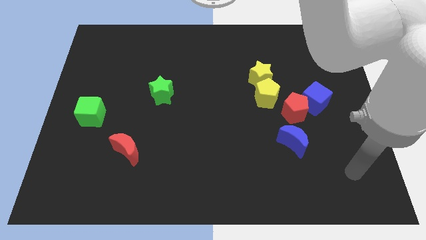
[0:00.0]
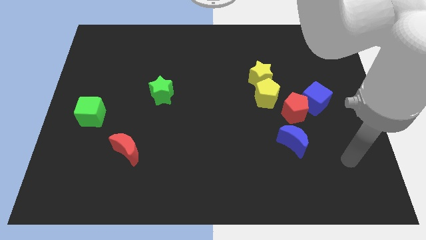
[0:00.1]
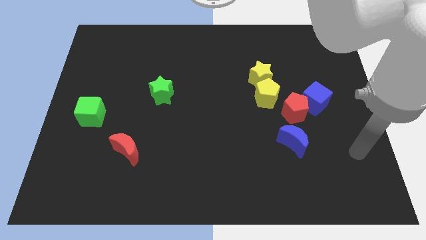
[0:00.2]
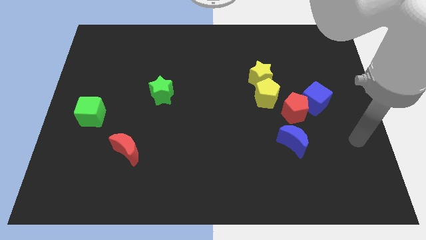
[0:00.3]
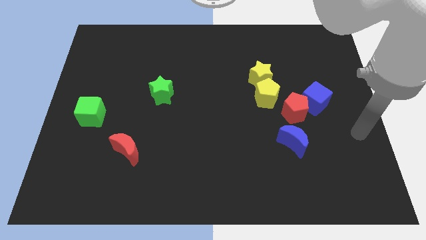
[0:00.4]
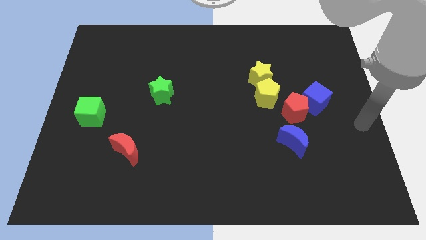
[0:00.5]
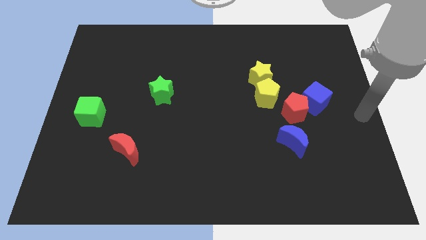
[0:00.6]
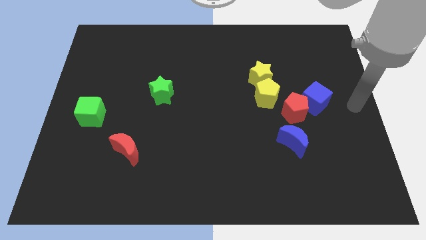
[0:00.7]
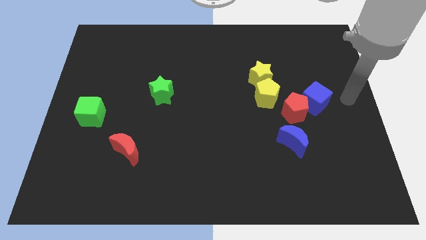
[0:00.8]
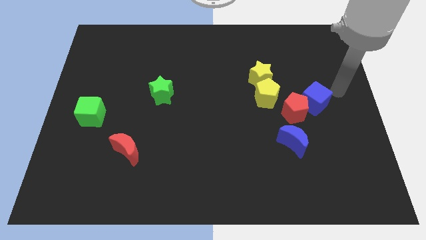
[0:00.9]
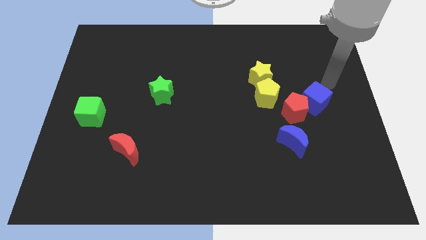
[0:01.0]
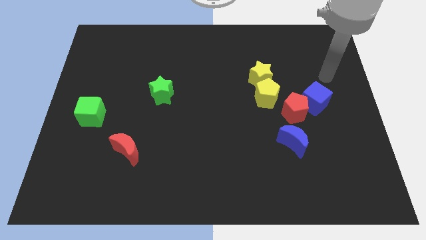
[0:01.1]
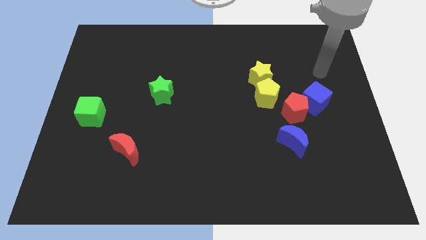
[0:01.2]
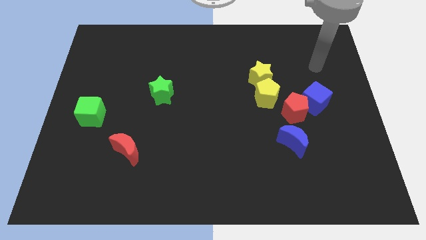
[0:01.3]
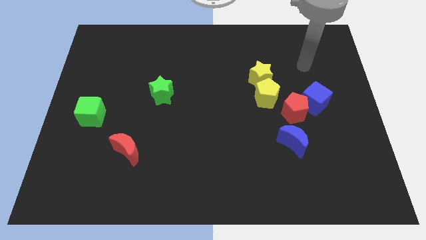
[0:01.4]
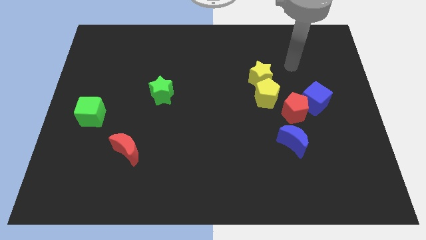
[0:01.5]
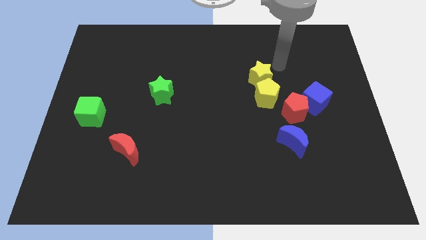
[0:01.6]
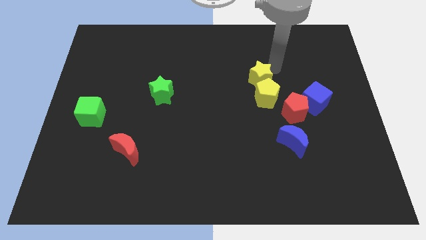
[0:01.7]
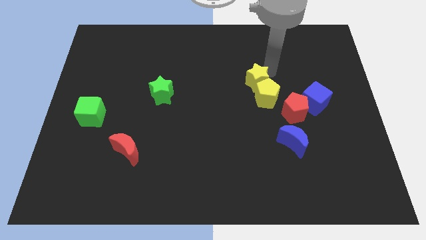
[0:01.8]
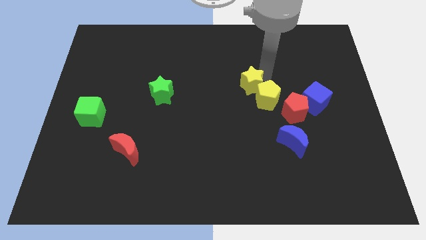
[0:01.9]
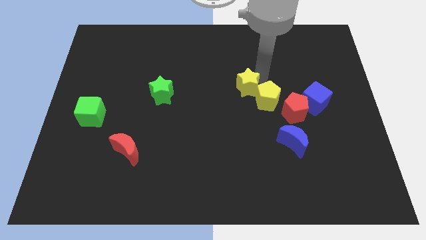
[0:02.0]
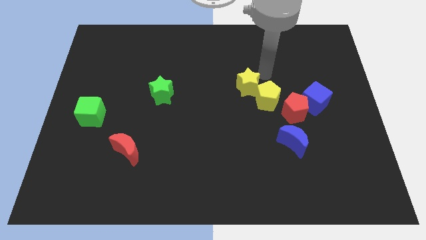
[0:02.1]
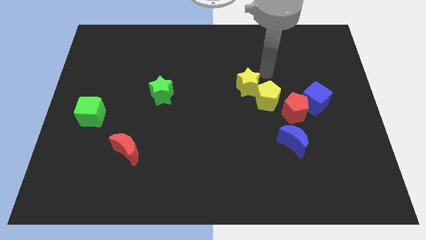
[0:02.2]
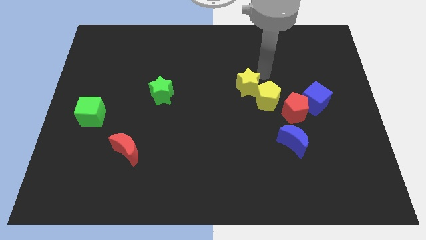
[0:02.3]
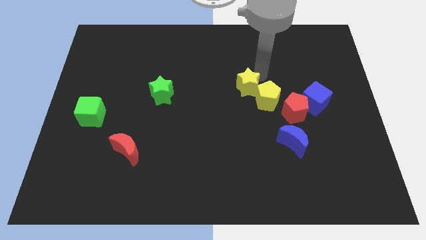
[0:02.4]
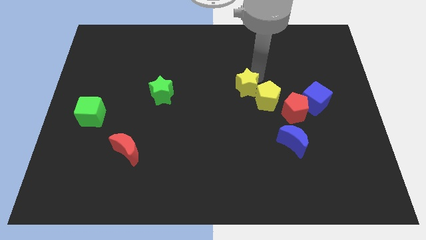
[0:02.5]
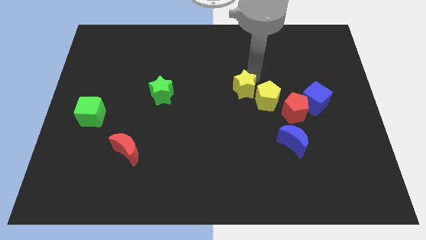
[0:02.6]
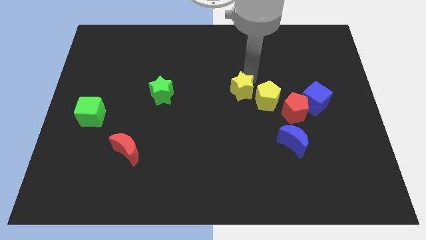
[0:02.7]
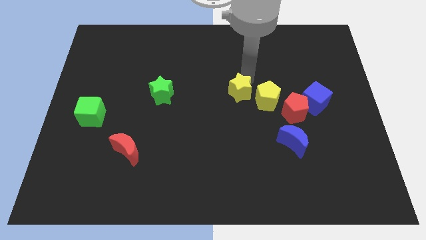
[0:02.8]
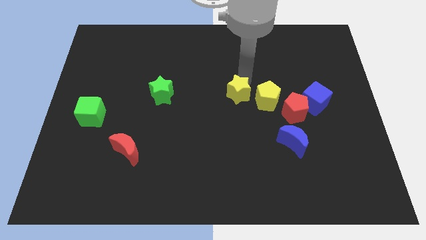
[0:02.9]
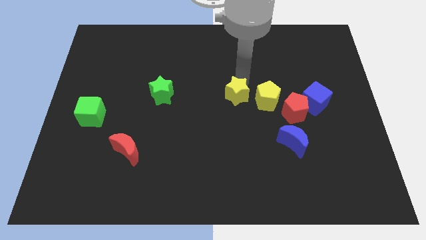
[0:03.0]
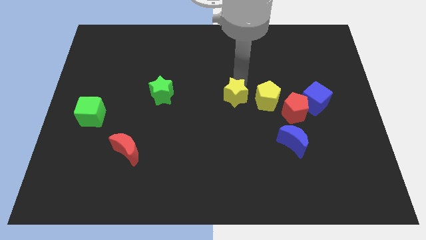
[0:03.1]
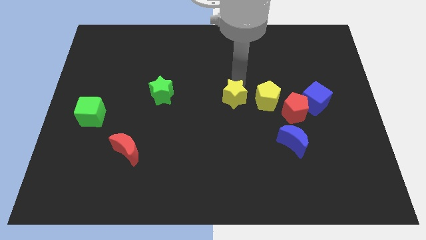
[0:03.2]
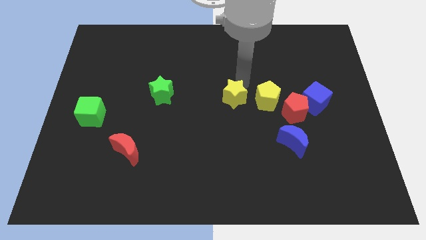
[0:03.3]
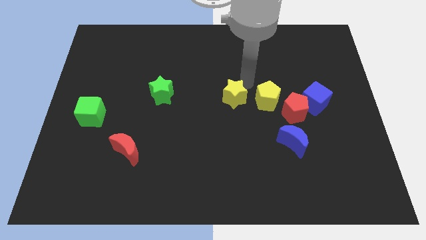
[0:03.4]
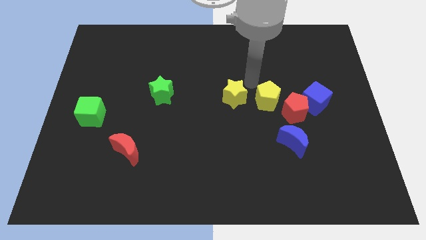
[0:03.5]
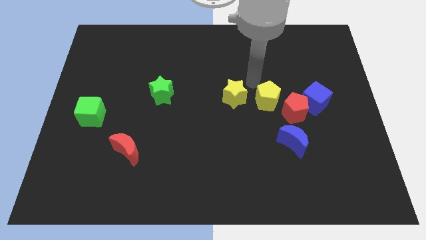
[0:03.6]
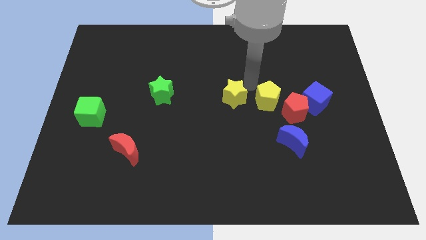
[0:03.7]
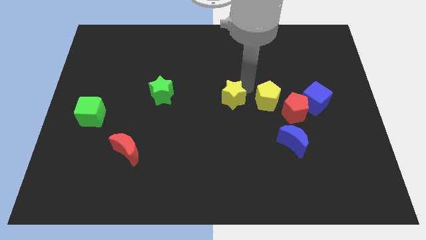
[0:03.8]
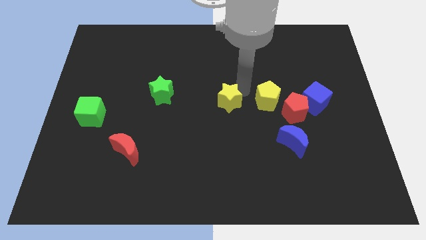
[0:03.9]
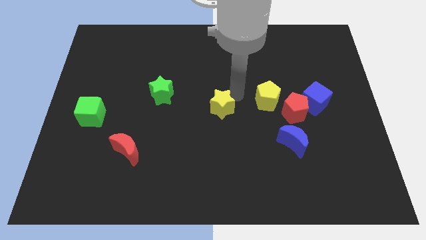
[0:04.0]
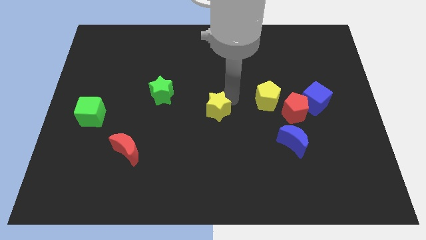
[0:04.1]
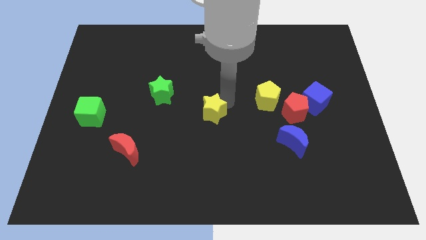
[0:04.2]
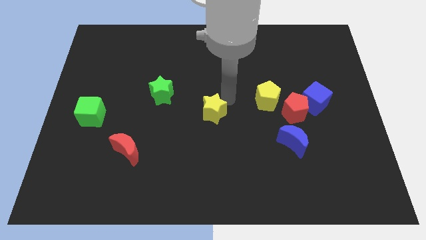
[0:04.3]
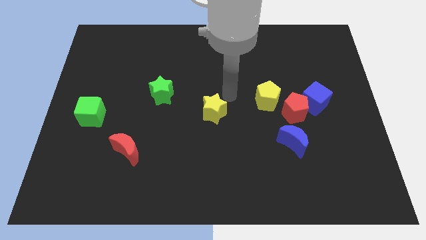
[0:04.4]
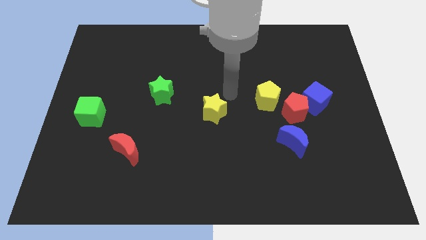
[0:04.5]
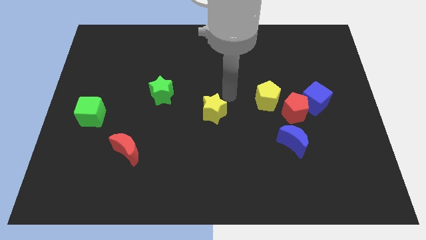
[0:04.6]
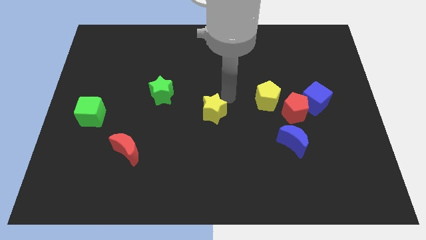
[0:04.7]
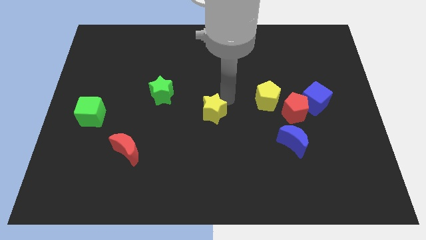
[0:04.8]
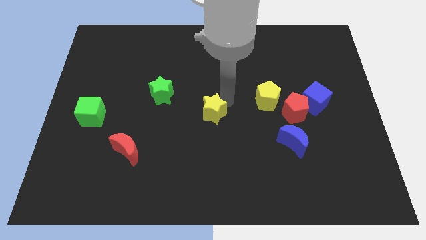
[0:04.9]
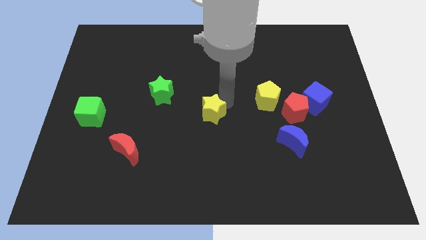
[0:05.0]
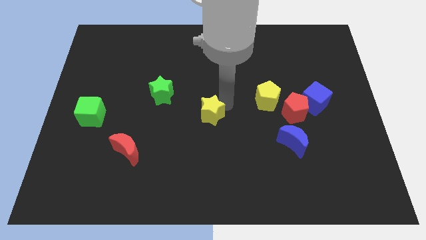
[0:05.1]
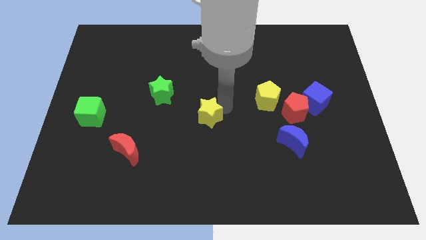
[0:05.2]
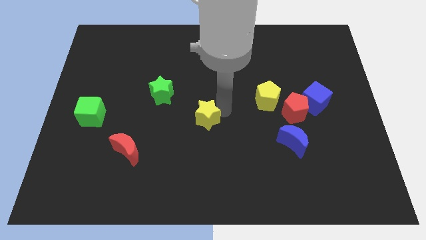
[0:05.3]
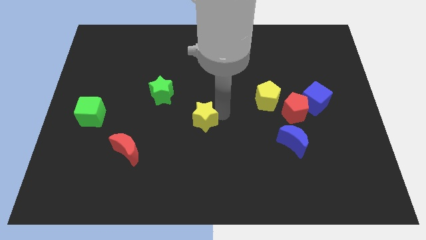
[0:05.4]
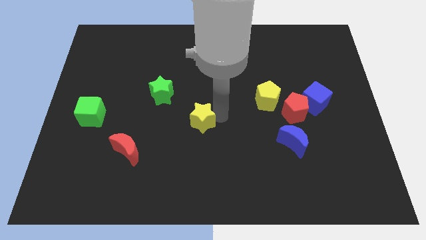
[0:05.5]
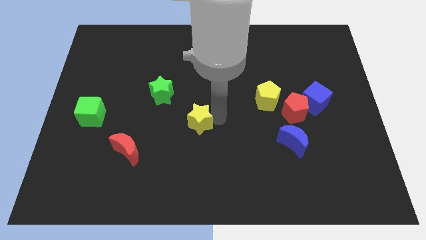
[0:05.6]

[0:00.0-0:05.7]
slide the yellow star downwards and then left

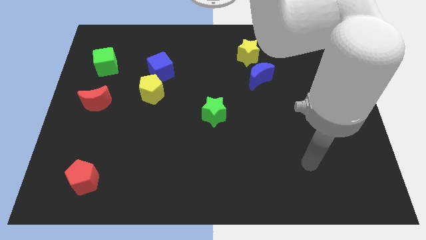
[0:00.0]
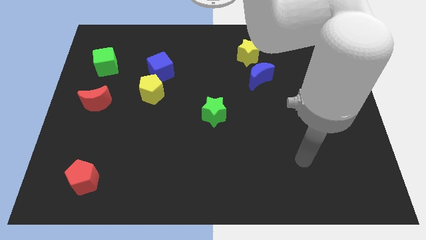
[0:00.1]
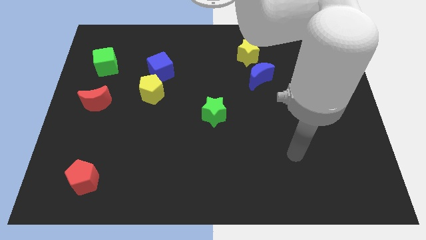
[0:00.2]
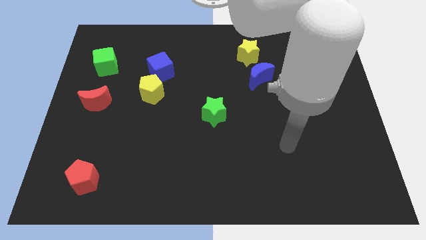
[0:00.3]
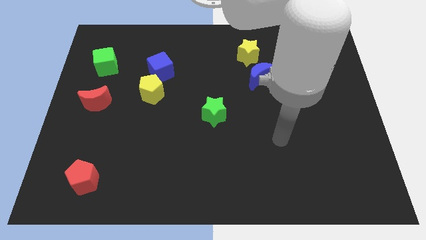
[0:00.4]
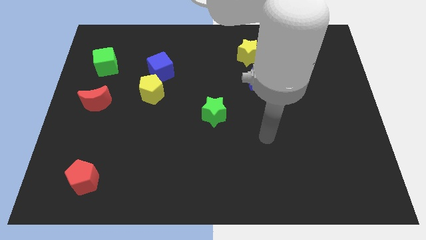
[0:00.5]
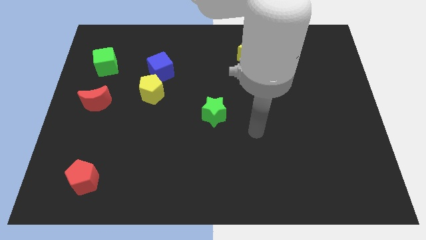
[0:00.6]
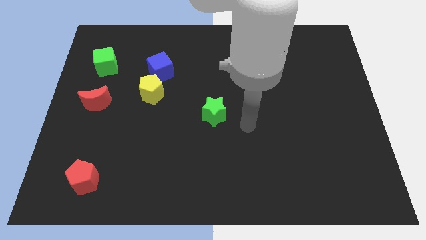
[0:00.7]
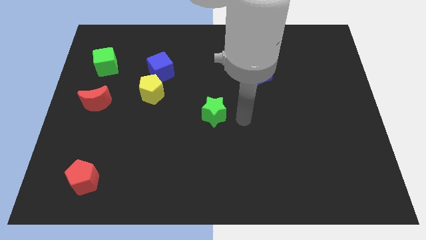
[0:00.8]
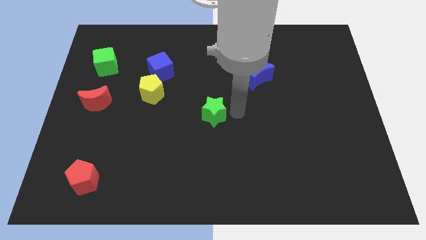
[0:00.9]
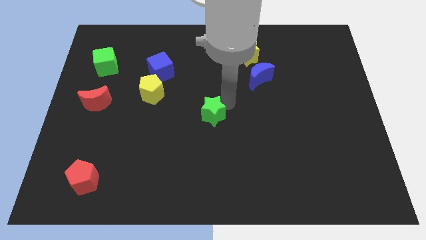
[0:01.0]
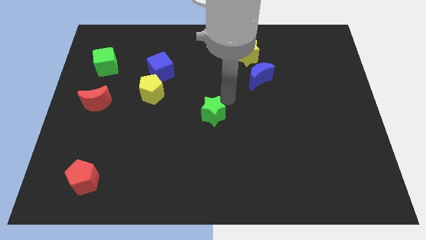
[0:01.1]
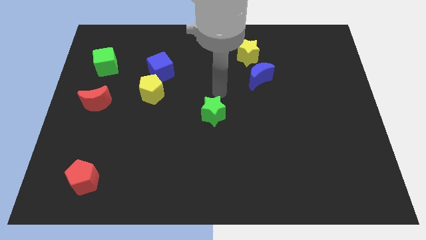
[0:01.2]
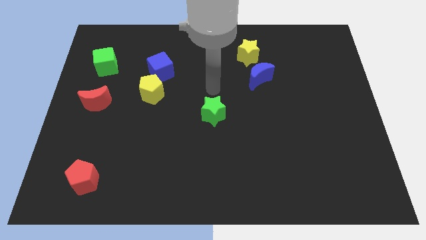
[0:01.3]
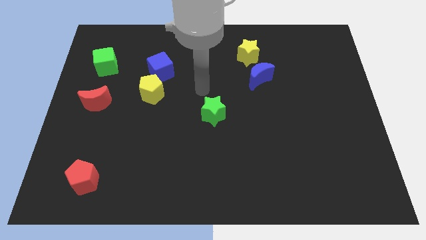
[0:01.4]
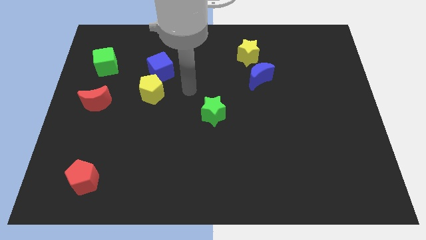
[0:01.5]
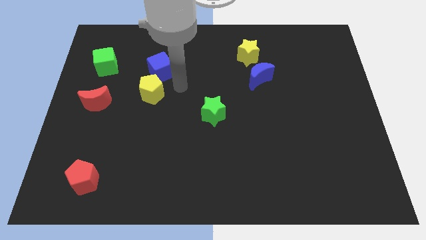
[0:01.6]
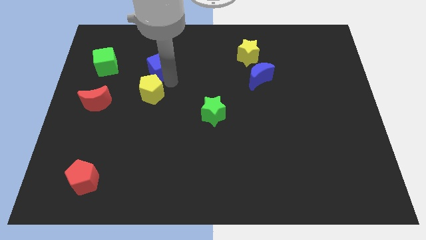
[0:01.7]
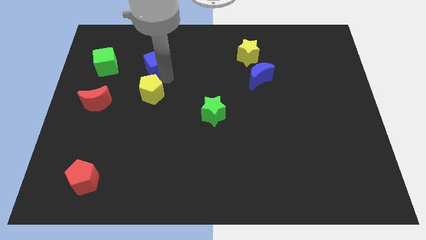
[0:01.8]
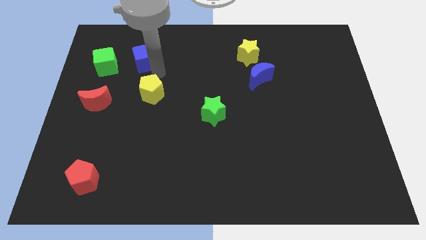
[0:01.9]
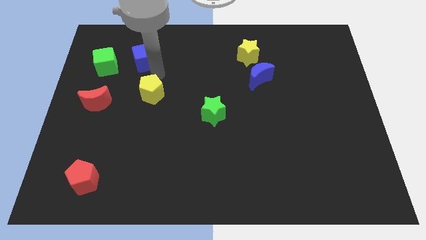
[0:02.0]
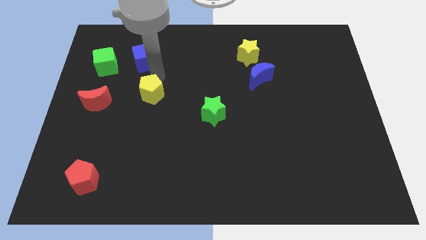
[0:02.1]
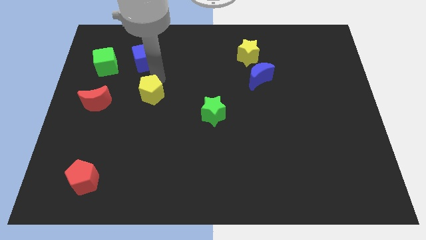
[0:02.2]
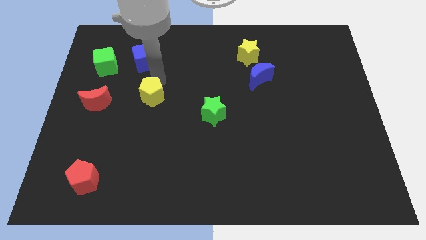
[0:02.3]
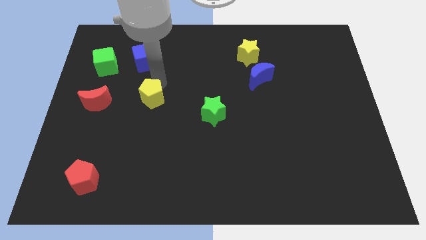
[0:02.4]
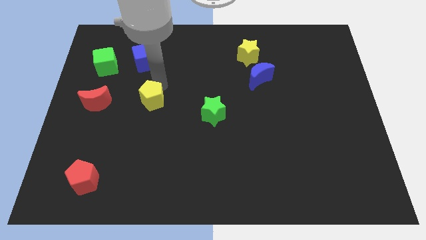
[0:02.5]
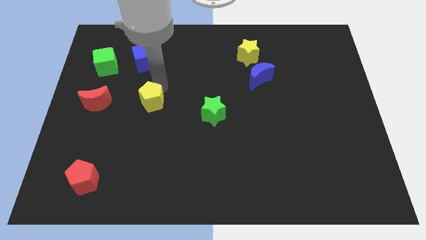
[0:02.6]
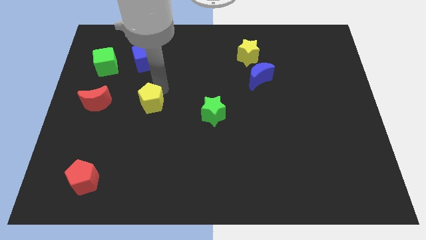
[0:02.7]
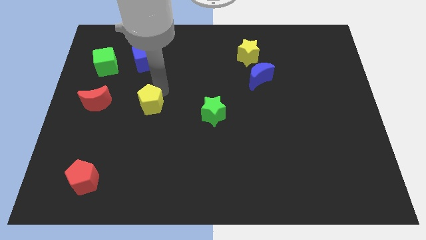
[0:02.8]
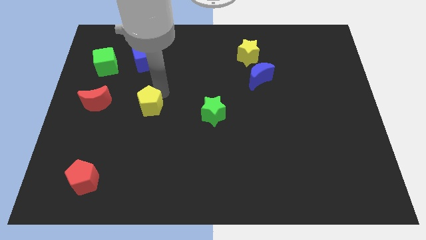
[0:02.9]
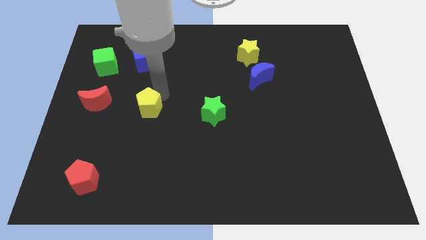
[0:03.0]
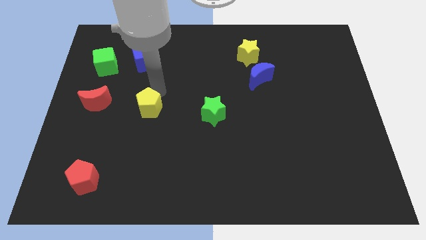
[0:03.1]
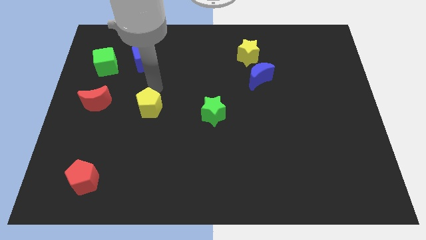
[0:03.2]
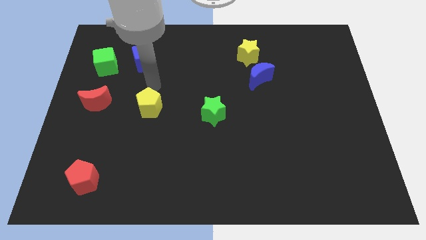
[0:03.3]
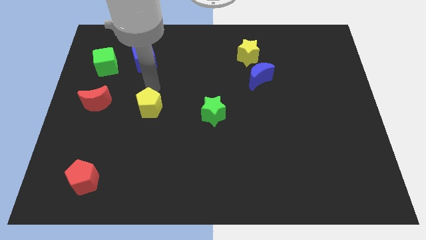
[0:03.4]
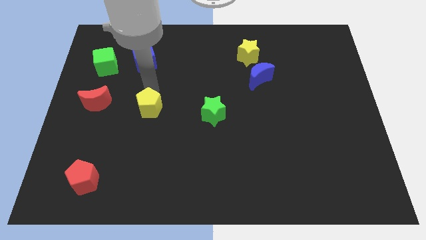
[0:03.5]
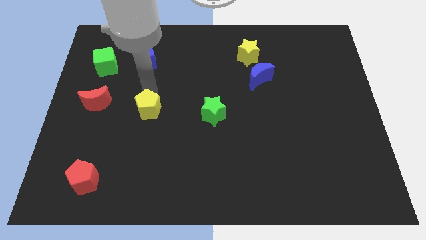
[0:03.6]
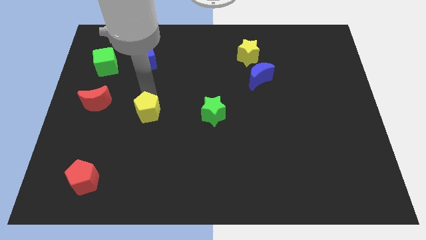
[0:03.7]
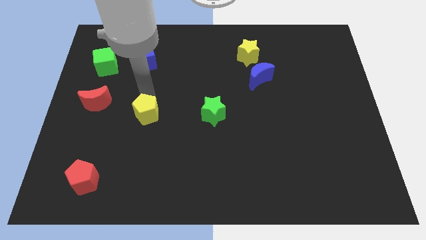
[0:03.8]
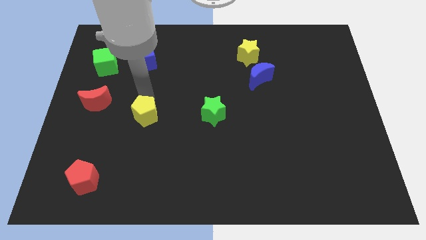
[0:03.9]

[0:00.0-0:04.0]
slightly move the yellow pentagon down
